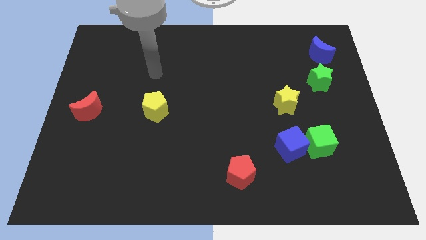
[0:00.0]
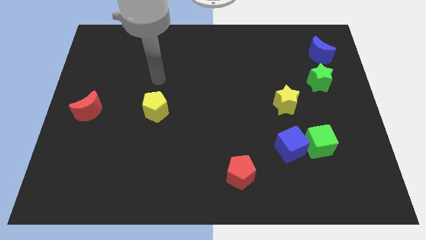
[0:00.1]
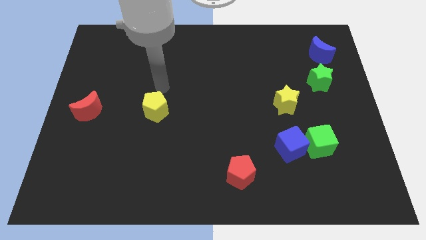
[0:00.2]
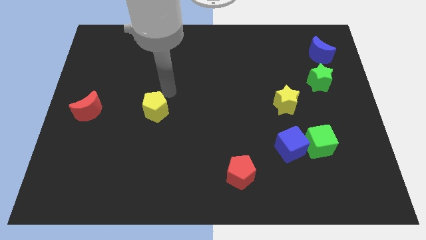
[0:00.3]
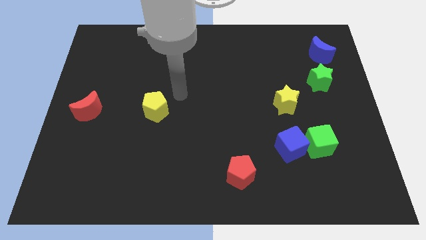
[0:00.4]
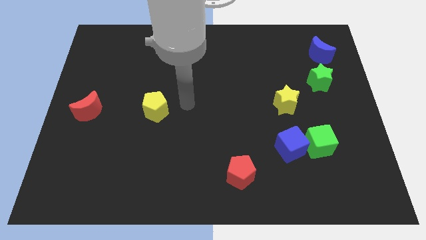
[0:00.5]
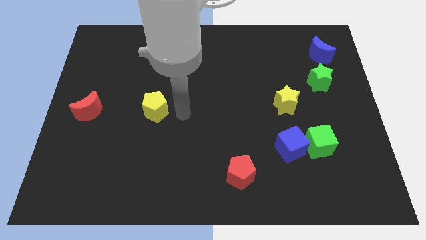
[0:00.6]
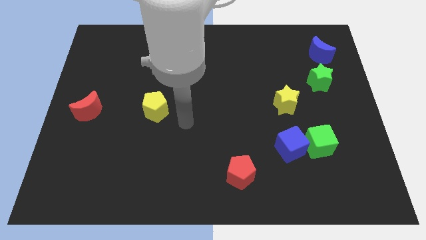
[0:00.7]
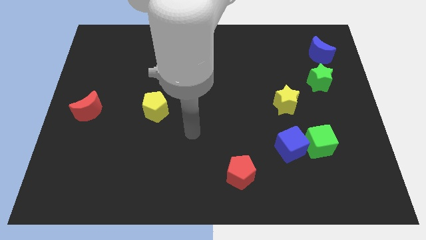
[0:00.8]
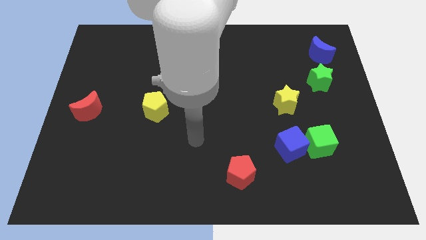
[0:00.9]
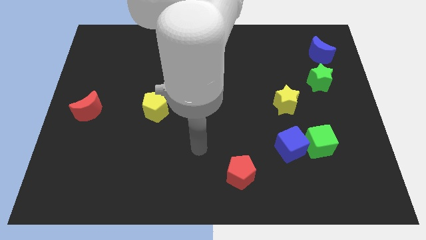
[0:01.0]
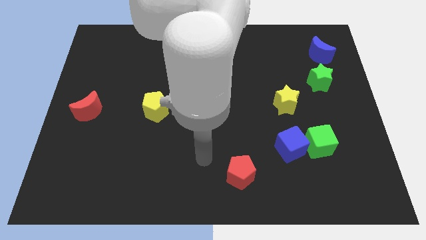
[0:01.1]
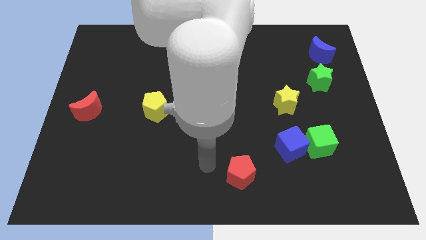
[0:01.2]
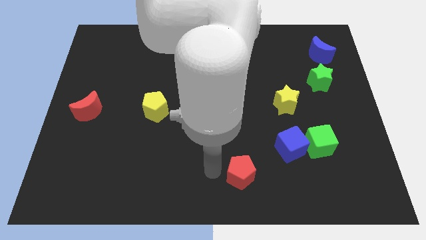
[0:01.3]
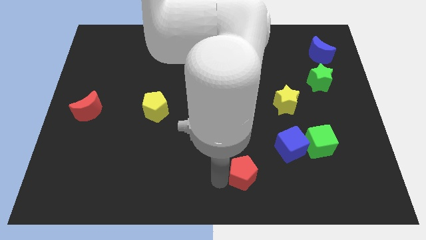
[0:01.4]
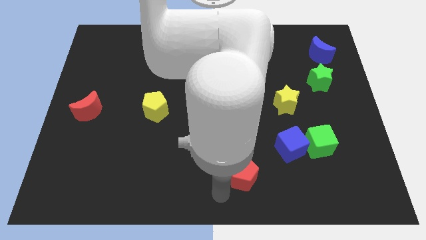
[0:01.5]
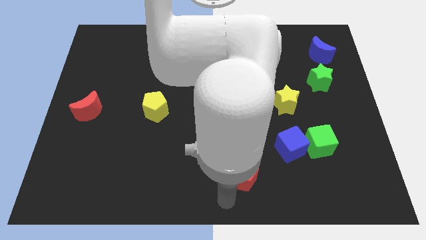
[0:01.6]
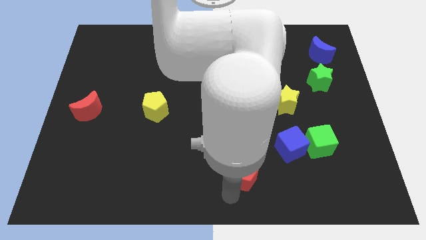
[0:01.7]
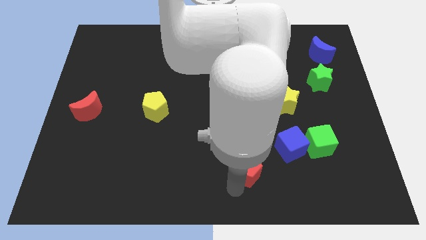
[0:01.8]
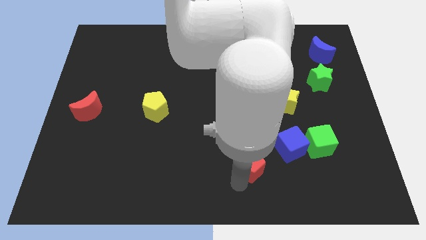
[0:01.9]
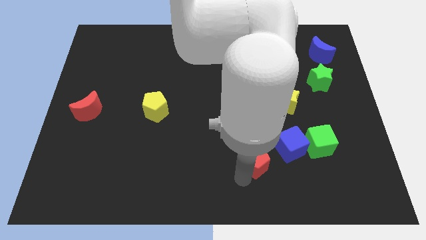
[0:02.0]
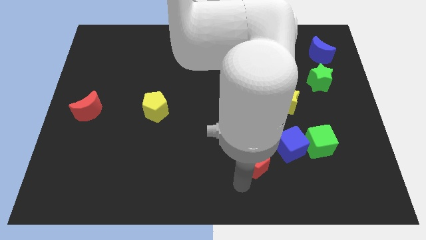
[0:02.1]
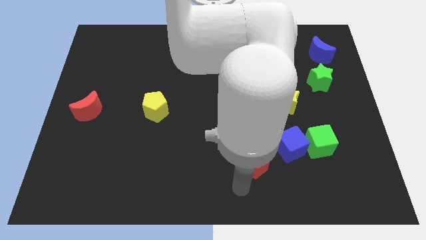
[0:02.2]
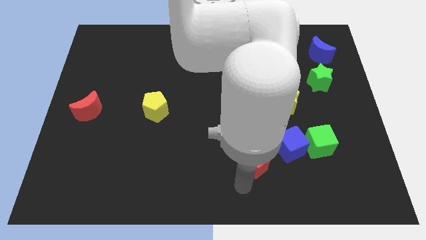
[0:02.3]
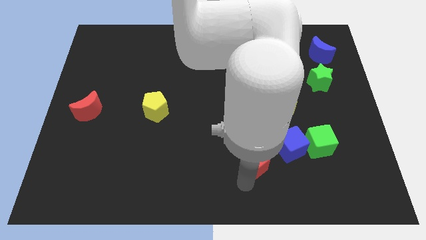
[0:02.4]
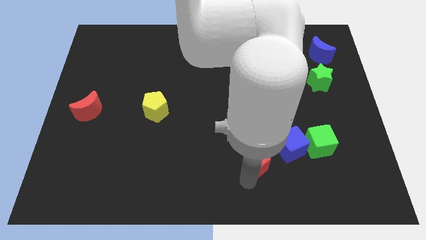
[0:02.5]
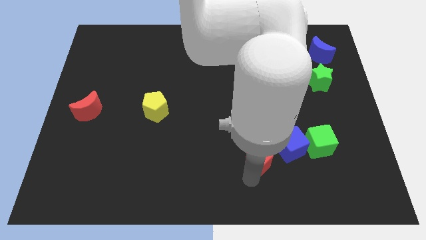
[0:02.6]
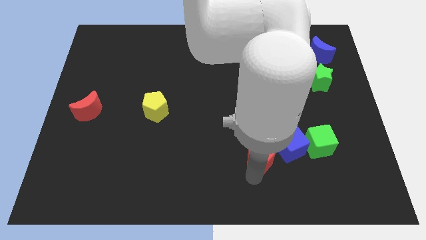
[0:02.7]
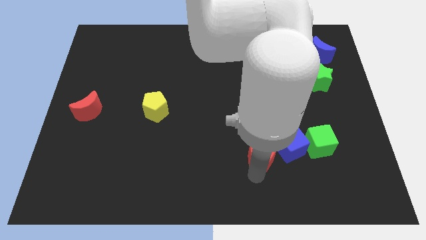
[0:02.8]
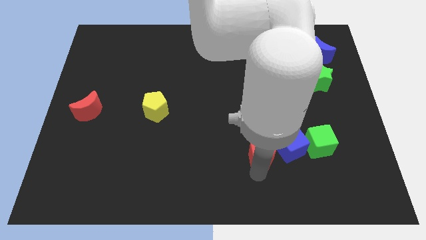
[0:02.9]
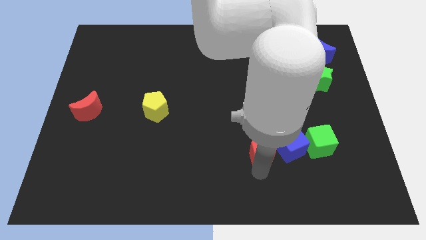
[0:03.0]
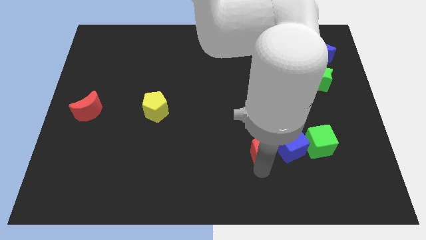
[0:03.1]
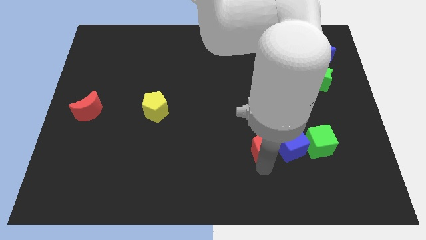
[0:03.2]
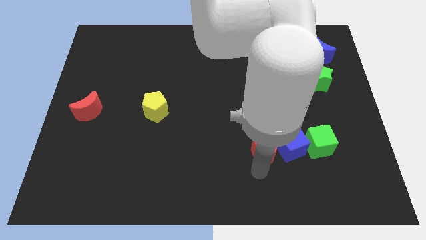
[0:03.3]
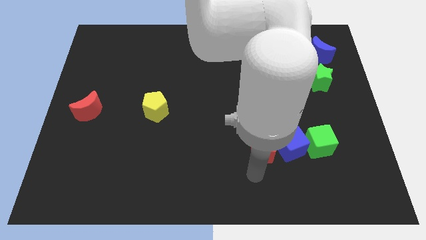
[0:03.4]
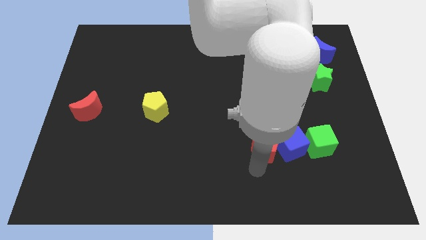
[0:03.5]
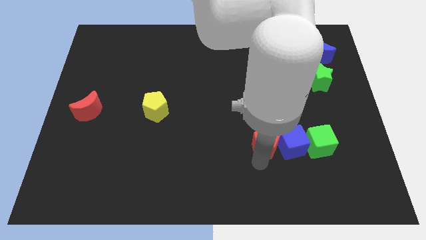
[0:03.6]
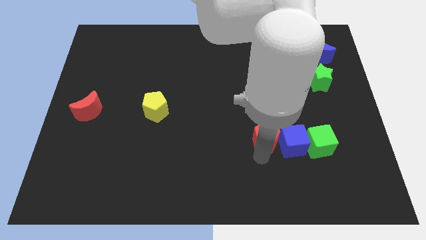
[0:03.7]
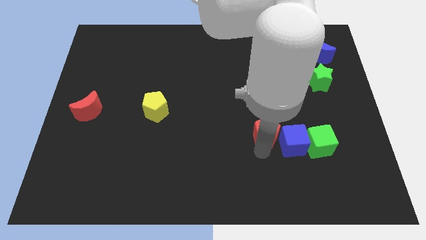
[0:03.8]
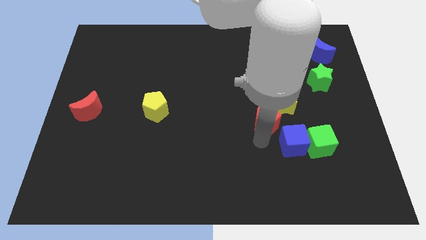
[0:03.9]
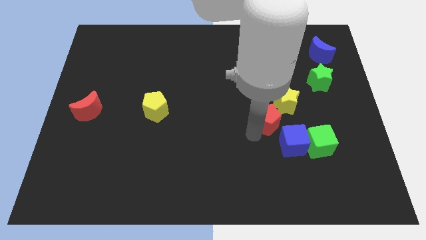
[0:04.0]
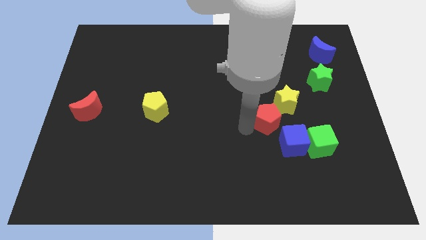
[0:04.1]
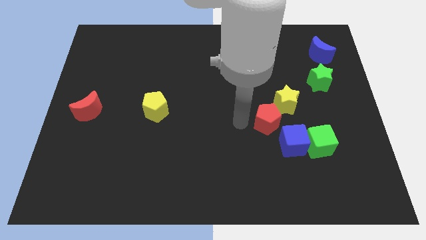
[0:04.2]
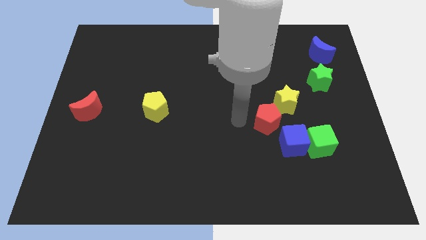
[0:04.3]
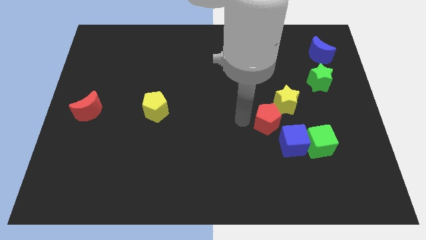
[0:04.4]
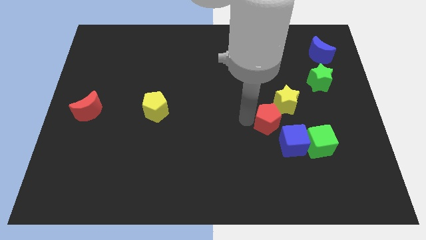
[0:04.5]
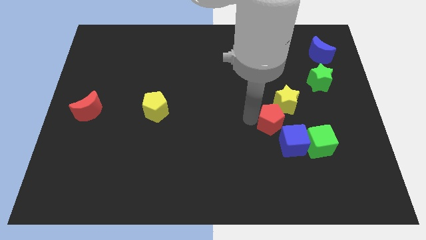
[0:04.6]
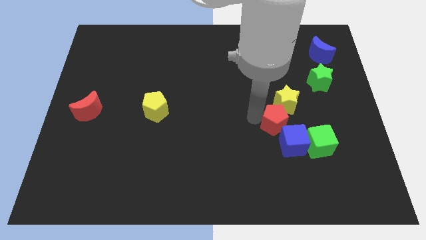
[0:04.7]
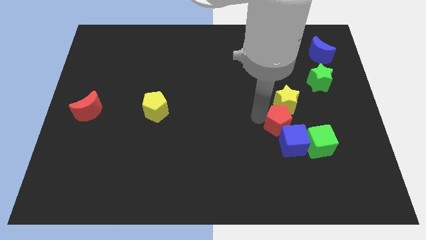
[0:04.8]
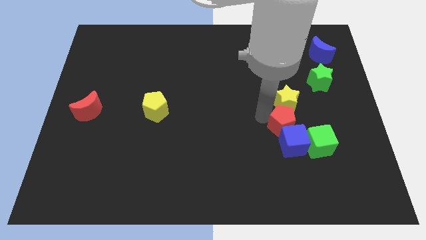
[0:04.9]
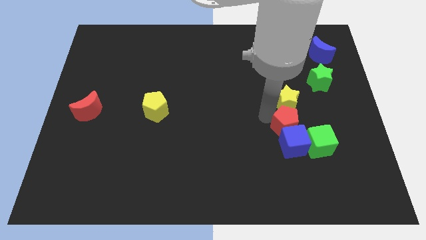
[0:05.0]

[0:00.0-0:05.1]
push the red pentagon to the top right side of the blue cube

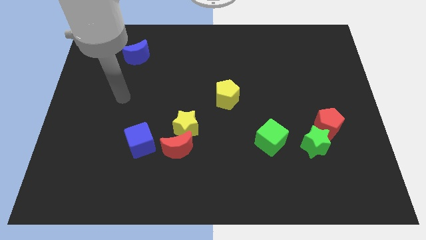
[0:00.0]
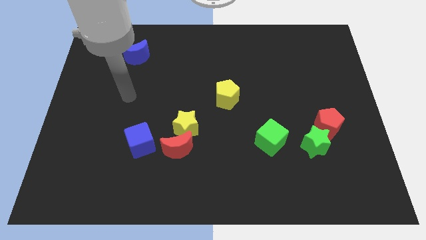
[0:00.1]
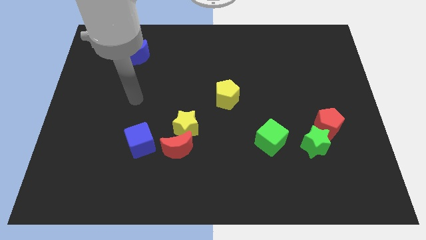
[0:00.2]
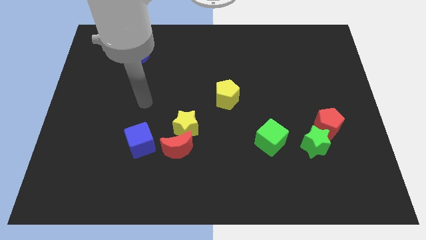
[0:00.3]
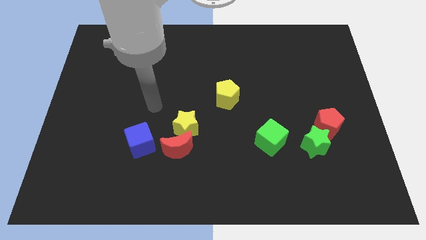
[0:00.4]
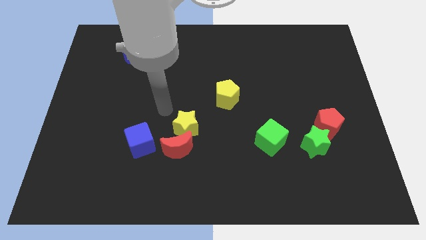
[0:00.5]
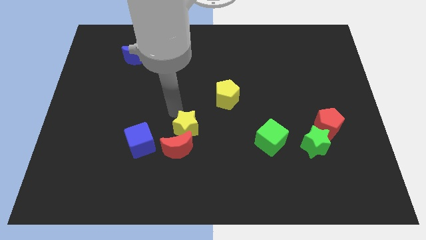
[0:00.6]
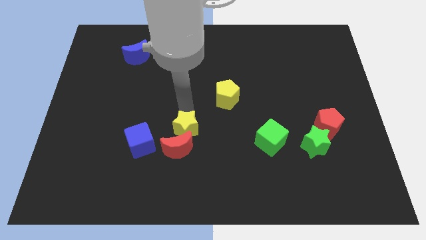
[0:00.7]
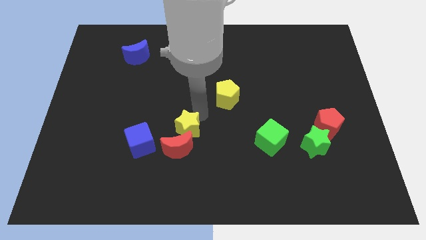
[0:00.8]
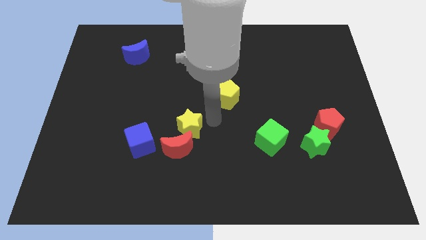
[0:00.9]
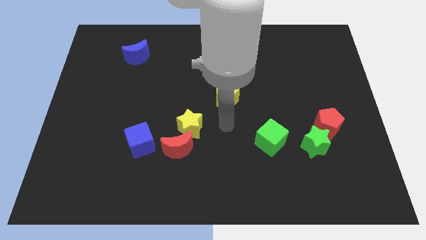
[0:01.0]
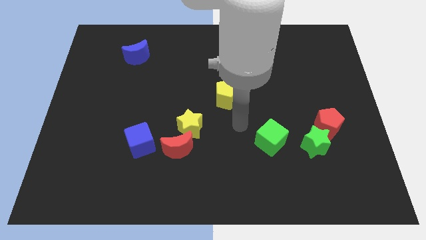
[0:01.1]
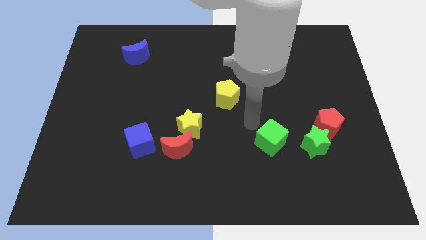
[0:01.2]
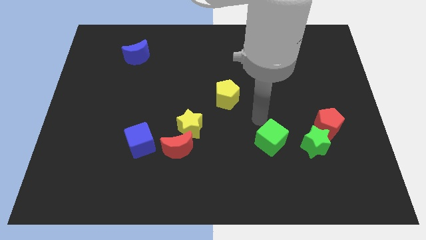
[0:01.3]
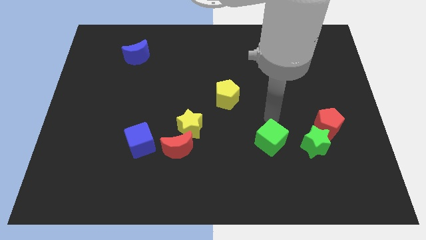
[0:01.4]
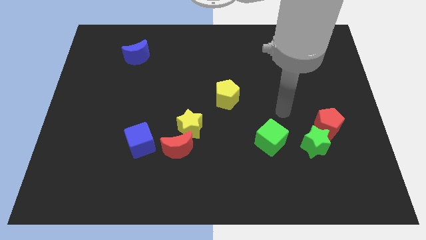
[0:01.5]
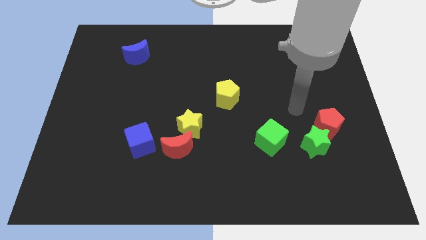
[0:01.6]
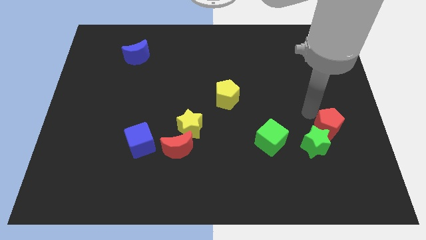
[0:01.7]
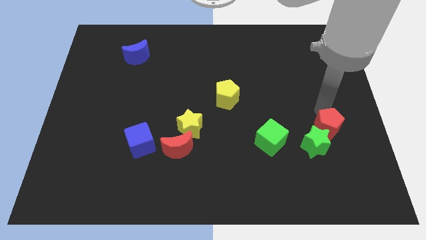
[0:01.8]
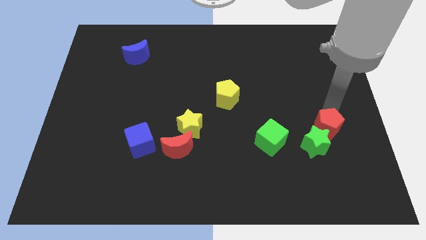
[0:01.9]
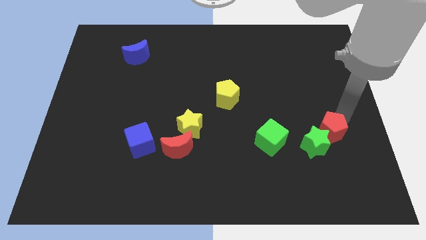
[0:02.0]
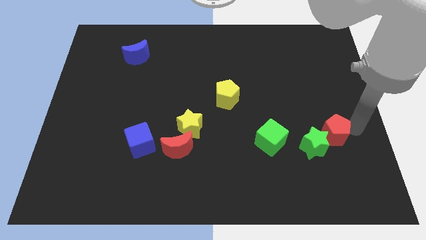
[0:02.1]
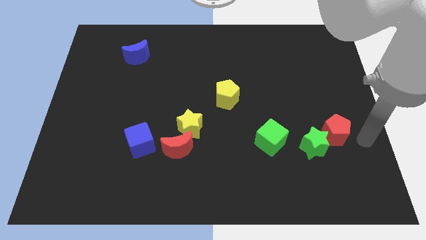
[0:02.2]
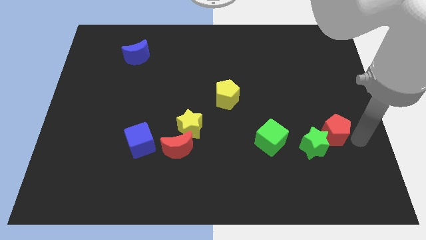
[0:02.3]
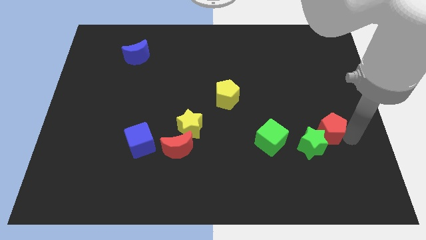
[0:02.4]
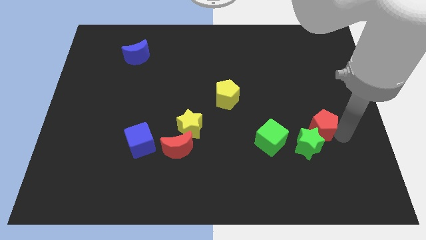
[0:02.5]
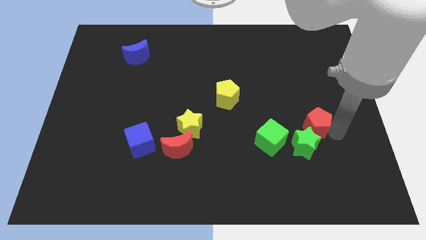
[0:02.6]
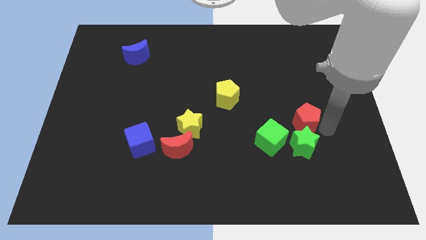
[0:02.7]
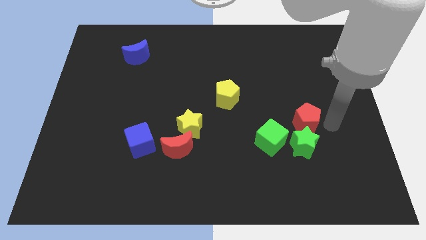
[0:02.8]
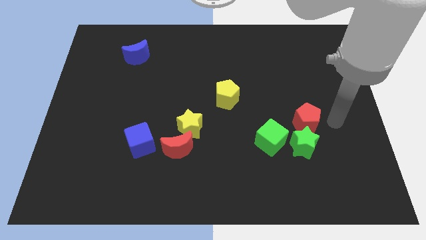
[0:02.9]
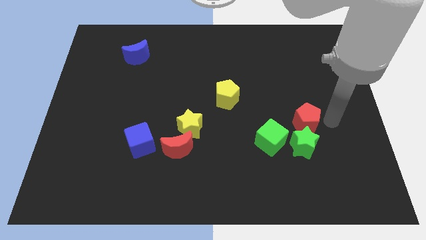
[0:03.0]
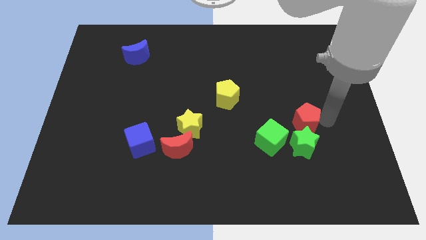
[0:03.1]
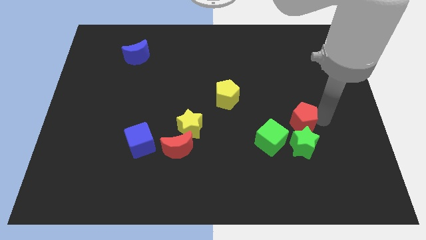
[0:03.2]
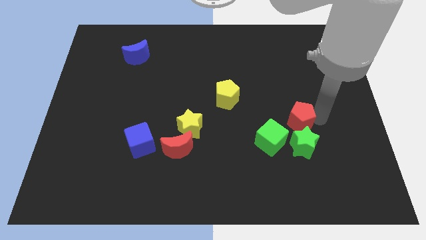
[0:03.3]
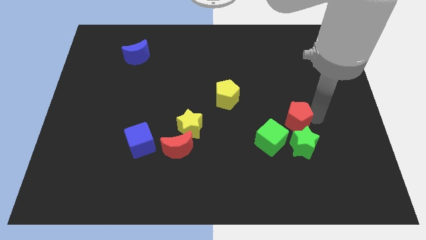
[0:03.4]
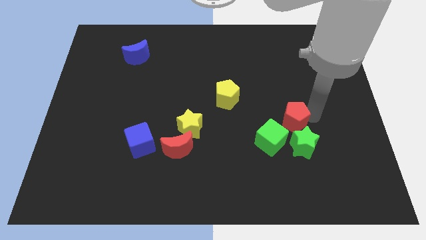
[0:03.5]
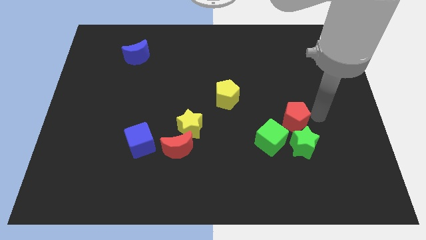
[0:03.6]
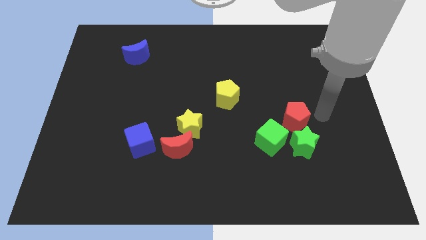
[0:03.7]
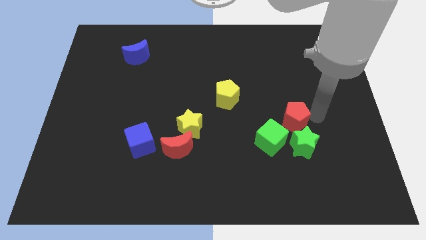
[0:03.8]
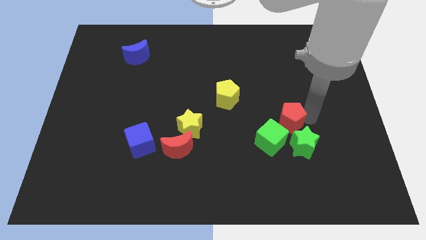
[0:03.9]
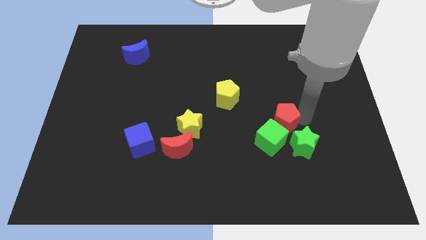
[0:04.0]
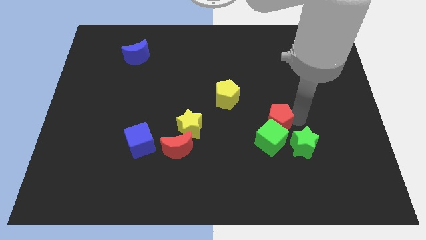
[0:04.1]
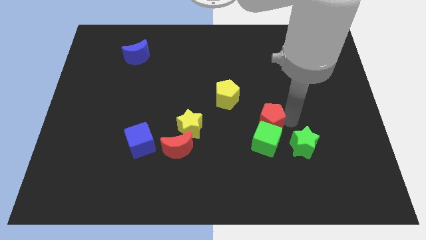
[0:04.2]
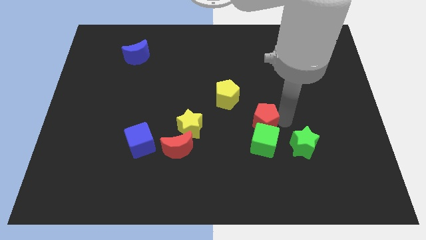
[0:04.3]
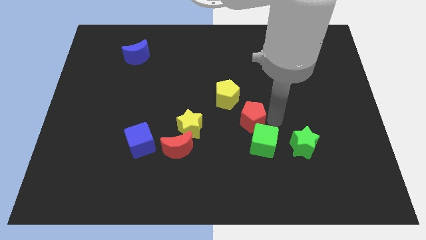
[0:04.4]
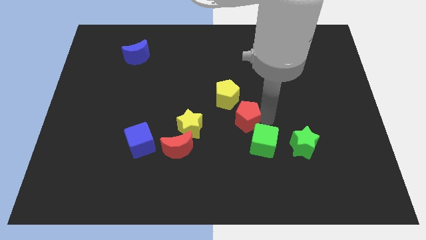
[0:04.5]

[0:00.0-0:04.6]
move the red pentagon to the bottom of the yellow pentagon
